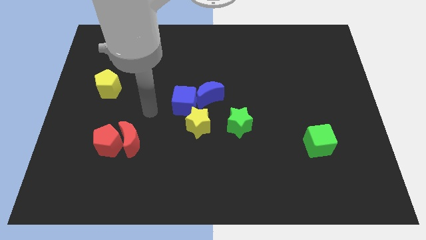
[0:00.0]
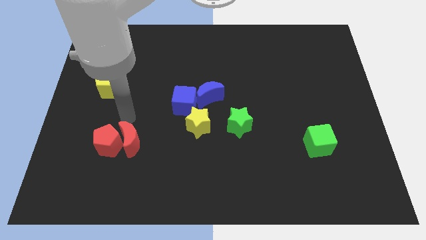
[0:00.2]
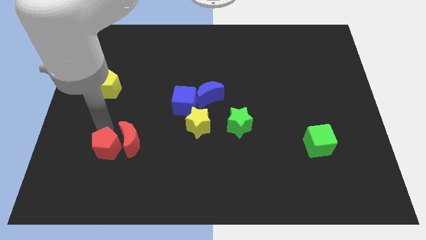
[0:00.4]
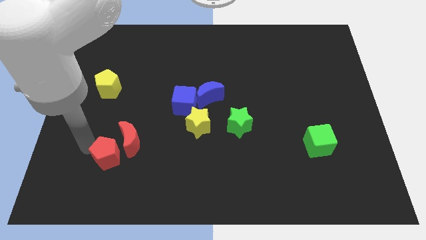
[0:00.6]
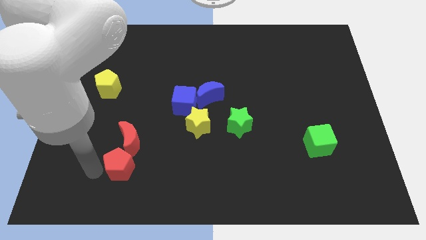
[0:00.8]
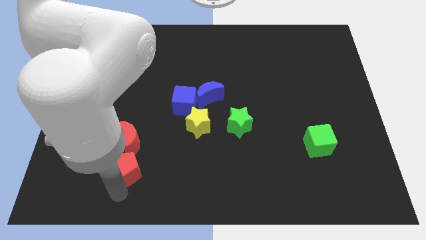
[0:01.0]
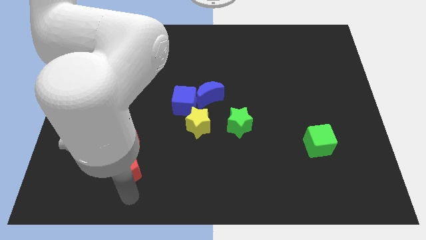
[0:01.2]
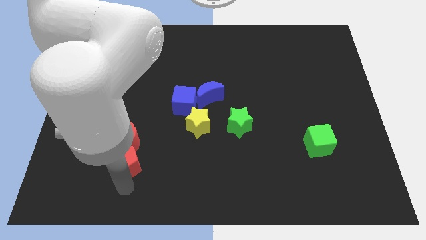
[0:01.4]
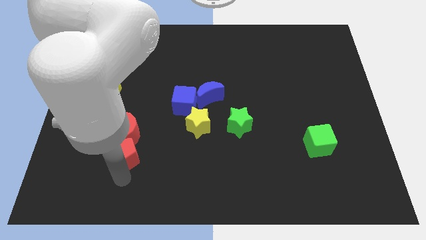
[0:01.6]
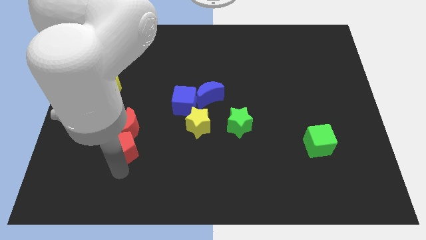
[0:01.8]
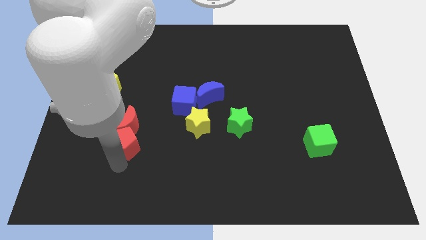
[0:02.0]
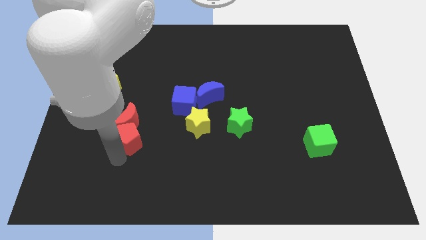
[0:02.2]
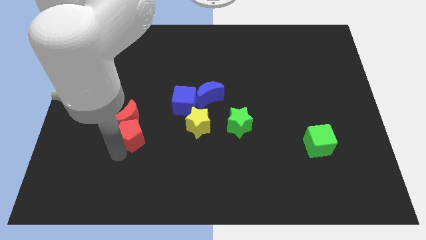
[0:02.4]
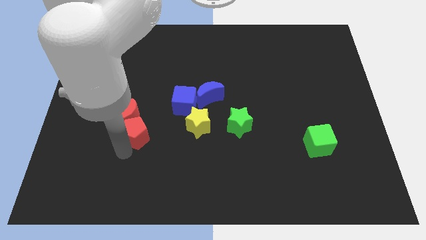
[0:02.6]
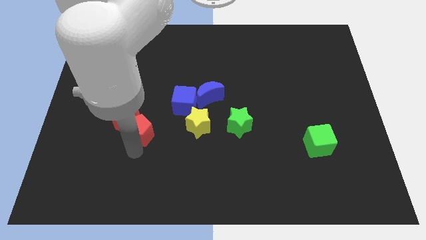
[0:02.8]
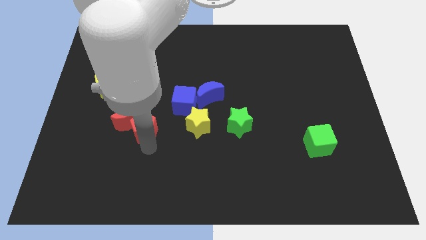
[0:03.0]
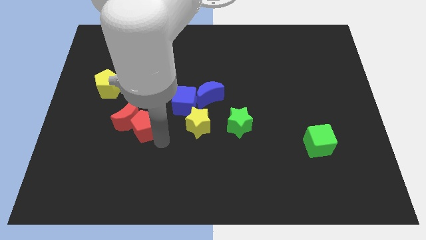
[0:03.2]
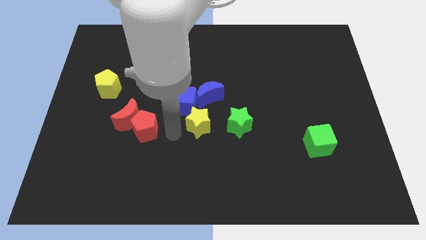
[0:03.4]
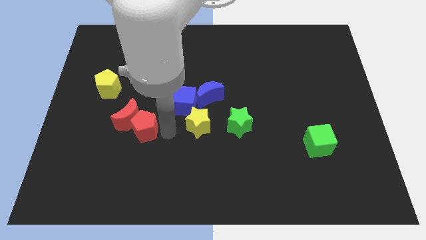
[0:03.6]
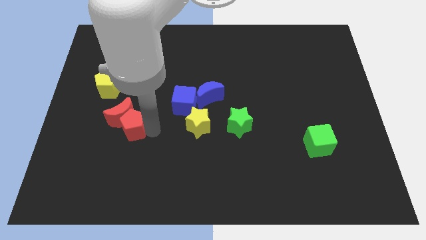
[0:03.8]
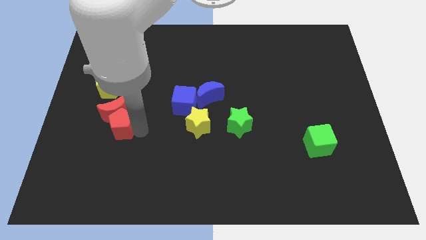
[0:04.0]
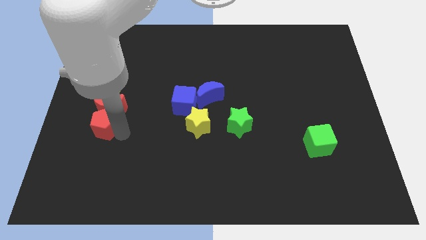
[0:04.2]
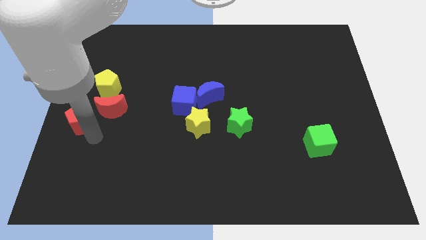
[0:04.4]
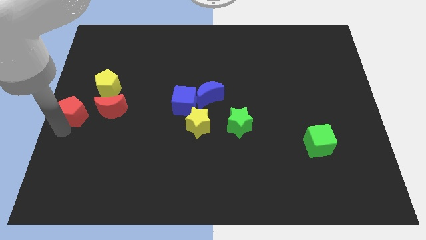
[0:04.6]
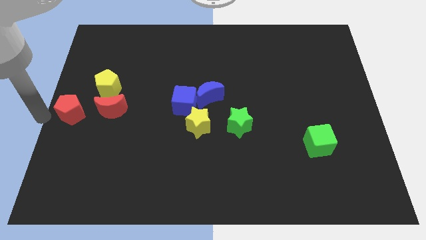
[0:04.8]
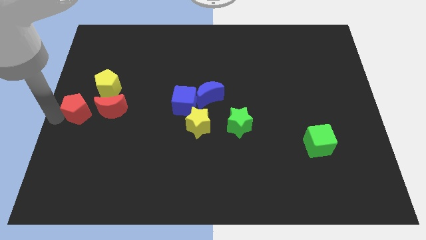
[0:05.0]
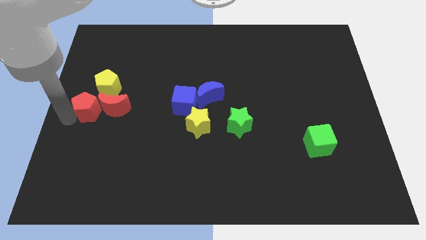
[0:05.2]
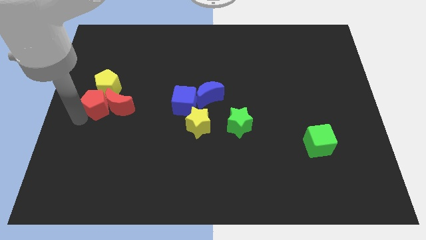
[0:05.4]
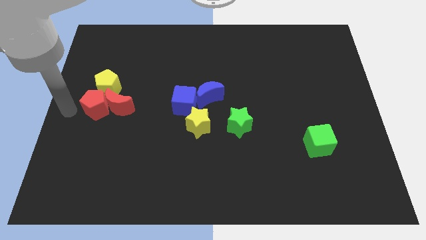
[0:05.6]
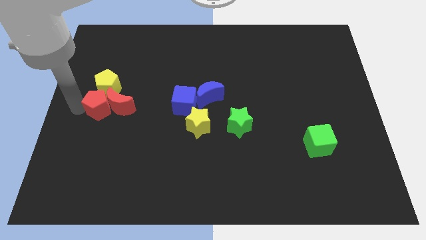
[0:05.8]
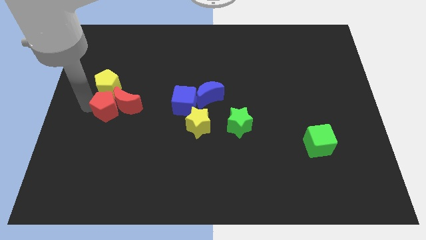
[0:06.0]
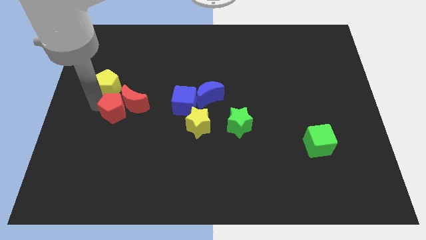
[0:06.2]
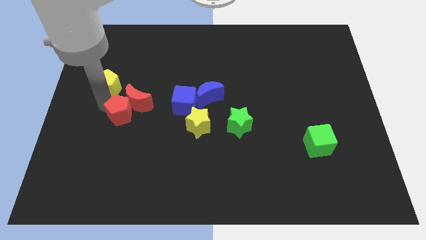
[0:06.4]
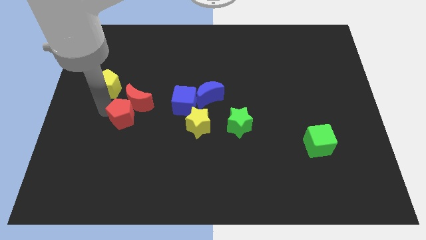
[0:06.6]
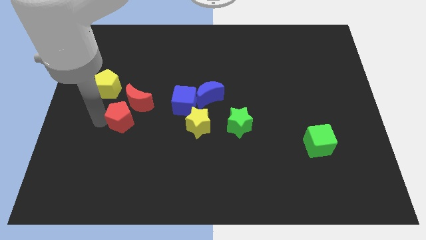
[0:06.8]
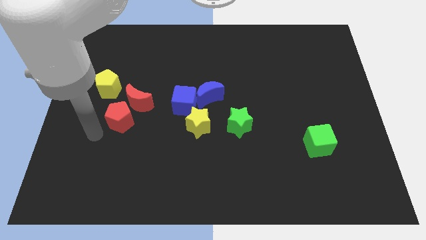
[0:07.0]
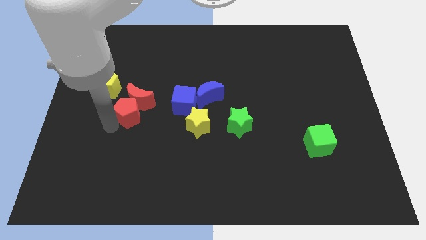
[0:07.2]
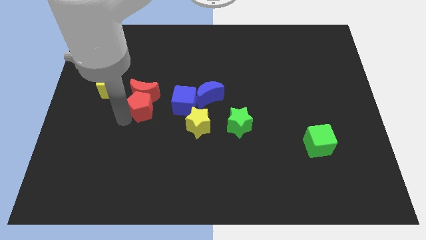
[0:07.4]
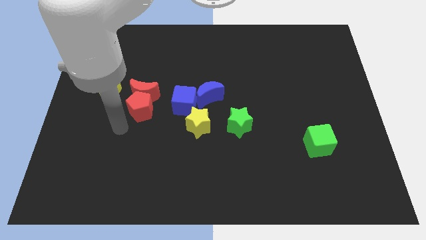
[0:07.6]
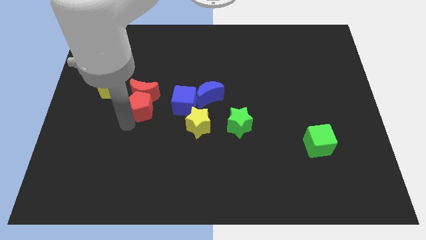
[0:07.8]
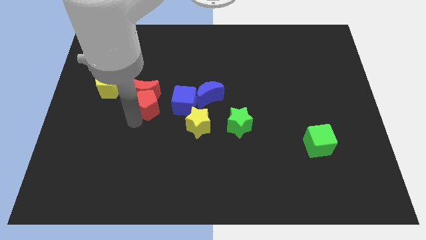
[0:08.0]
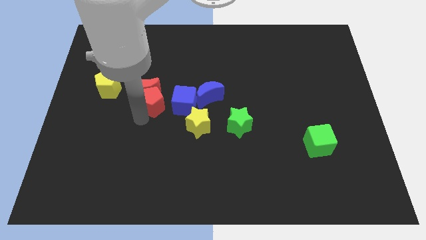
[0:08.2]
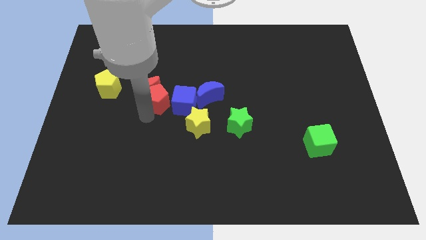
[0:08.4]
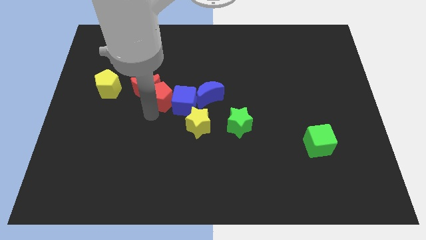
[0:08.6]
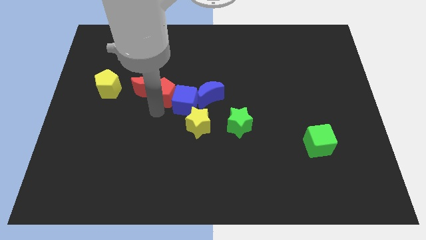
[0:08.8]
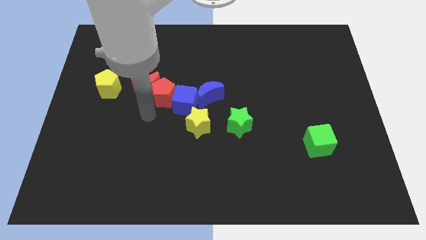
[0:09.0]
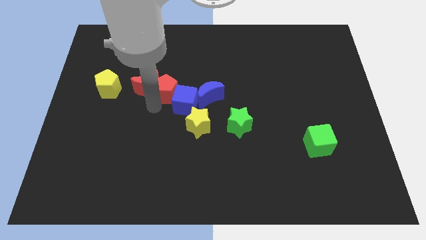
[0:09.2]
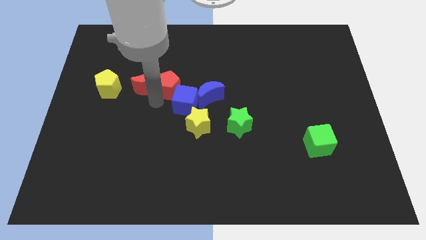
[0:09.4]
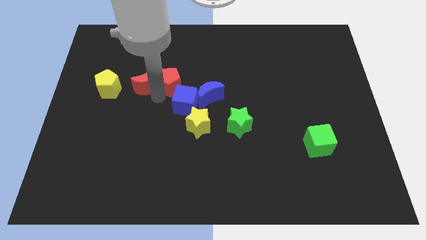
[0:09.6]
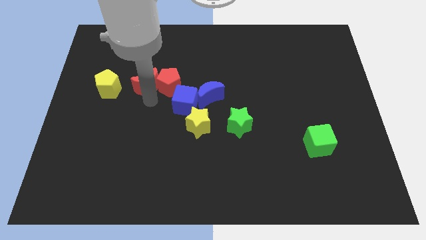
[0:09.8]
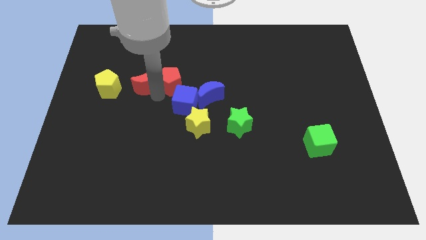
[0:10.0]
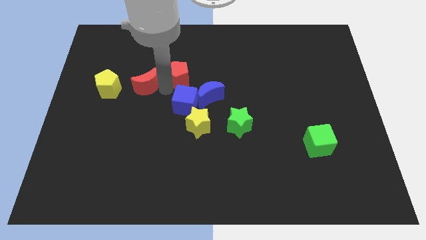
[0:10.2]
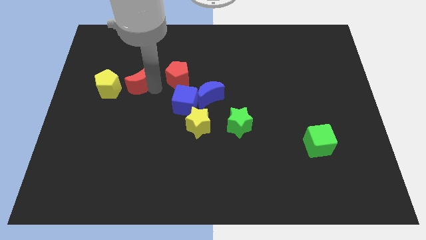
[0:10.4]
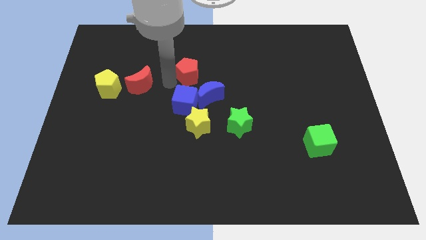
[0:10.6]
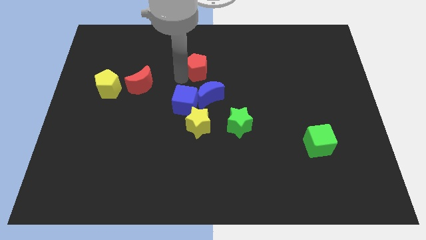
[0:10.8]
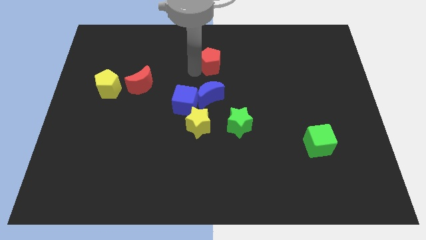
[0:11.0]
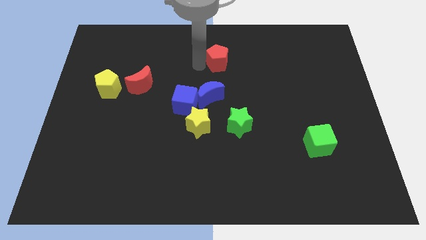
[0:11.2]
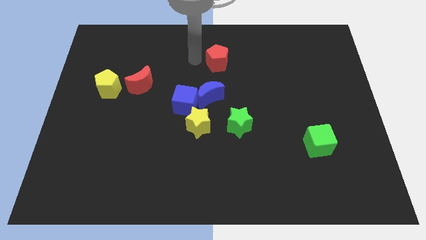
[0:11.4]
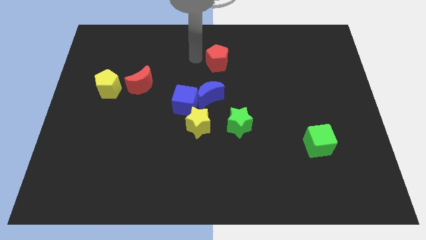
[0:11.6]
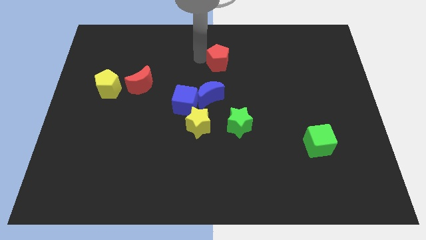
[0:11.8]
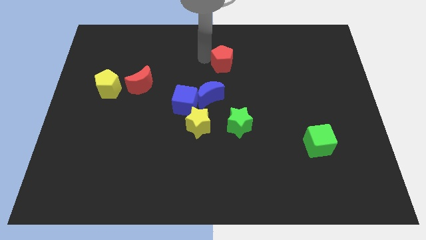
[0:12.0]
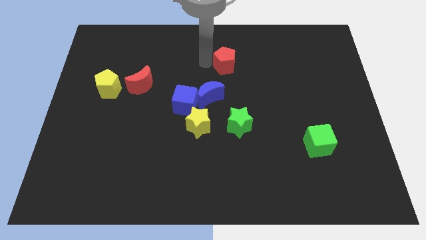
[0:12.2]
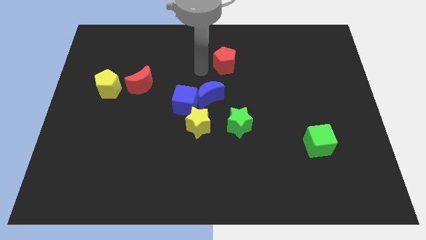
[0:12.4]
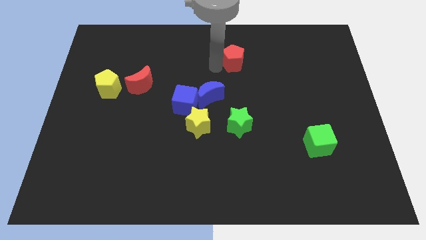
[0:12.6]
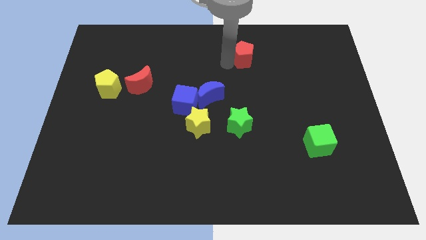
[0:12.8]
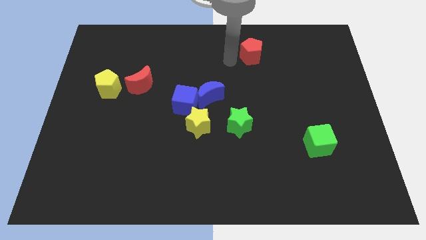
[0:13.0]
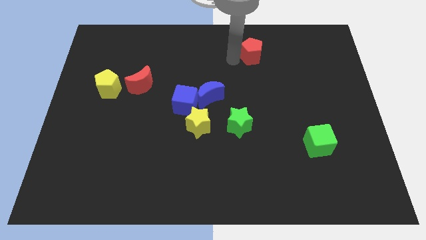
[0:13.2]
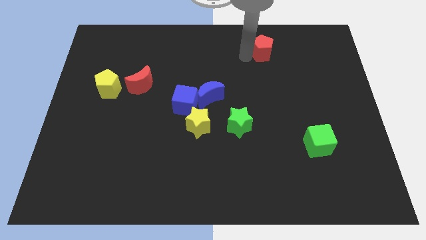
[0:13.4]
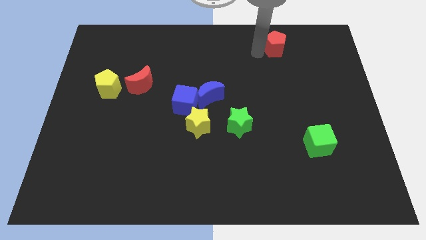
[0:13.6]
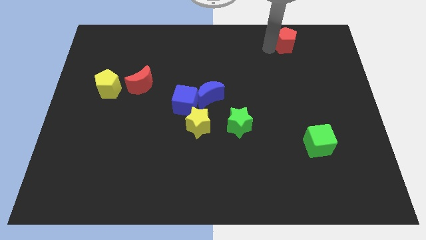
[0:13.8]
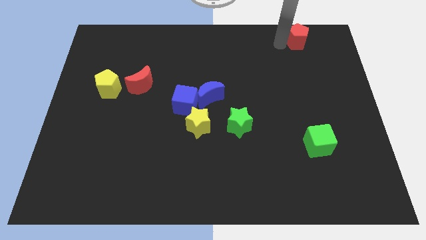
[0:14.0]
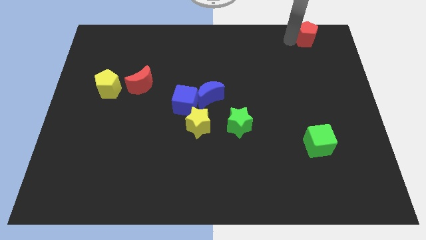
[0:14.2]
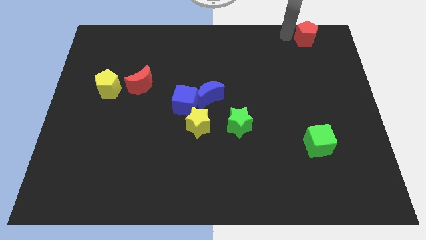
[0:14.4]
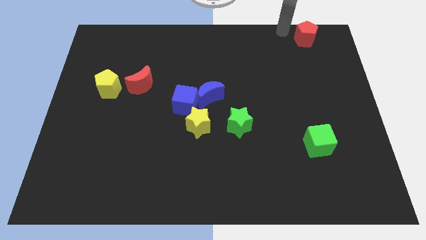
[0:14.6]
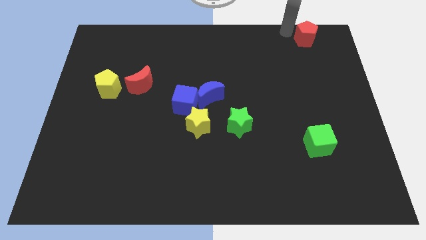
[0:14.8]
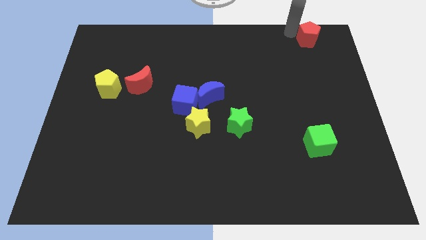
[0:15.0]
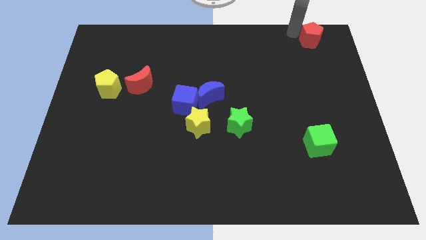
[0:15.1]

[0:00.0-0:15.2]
slide the red pentagon to the upper right corner
